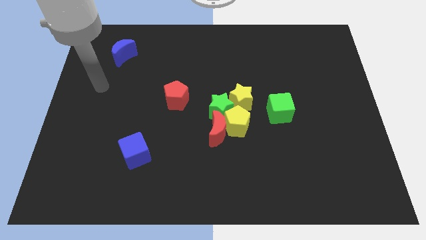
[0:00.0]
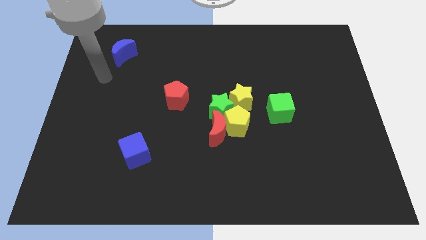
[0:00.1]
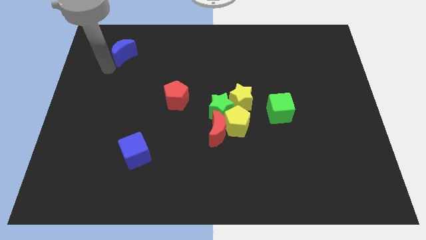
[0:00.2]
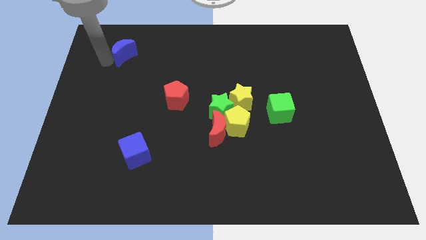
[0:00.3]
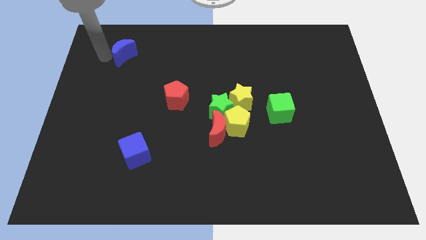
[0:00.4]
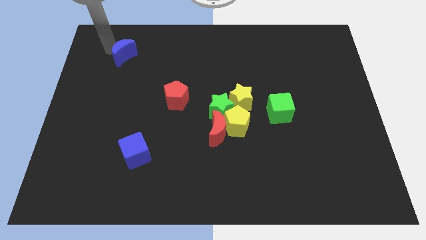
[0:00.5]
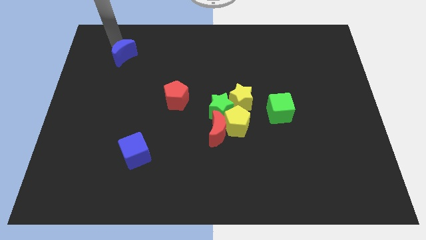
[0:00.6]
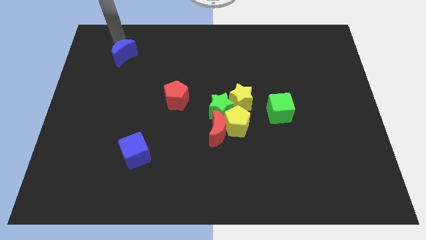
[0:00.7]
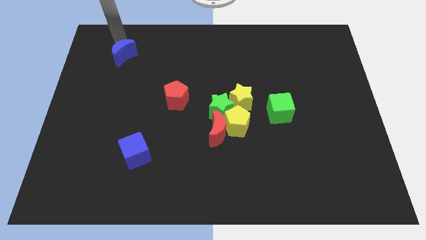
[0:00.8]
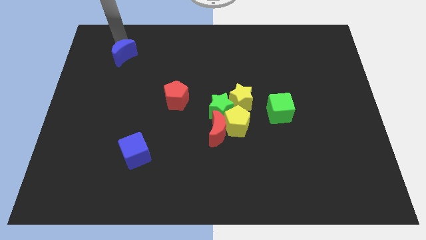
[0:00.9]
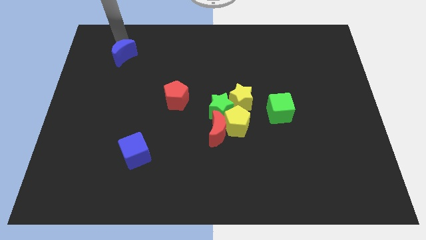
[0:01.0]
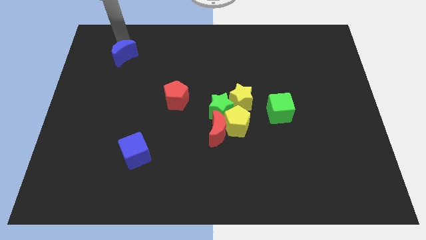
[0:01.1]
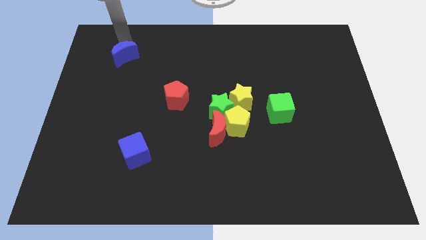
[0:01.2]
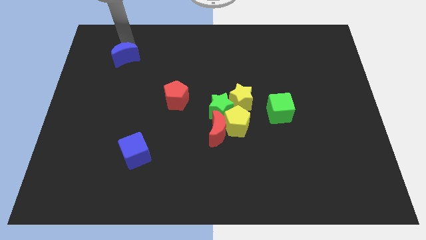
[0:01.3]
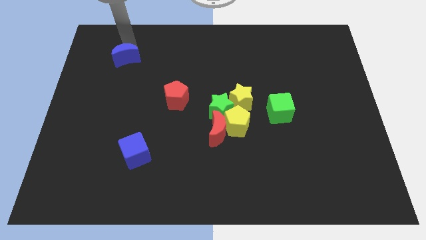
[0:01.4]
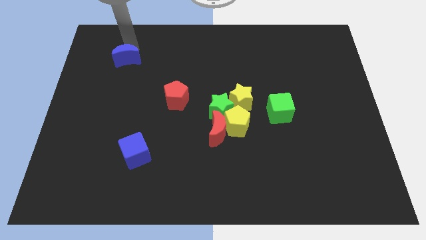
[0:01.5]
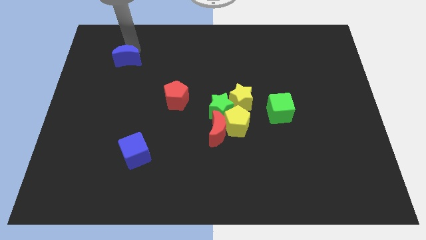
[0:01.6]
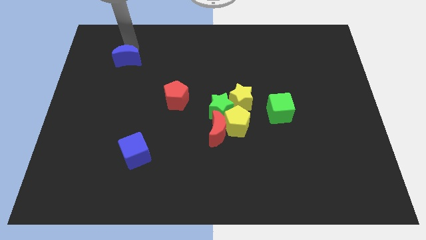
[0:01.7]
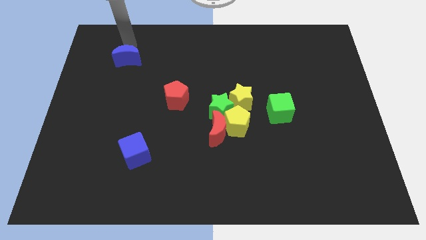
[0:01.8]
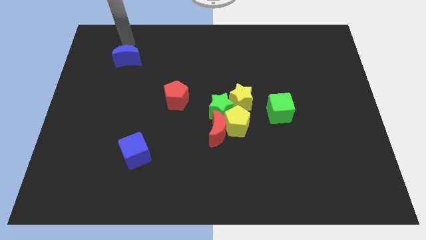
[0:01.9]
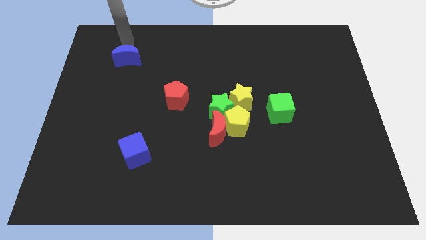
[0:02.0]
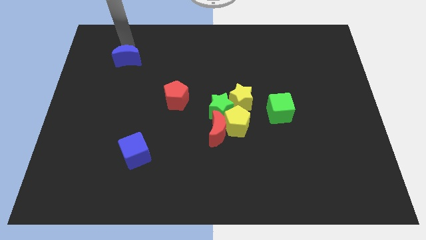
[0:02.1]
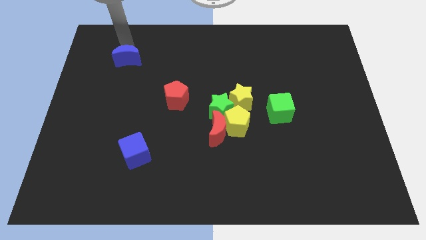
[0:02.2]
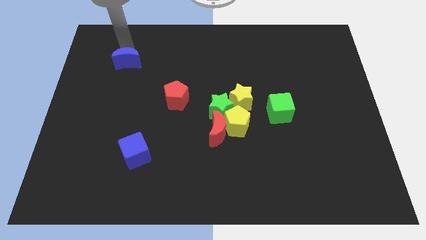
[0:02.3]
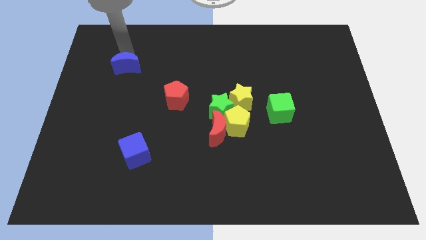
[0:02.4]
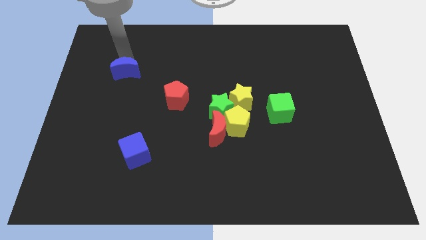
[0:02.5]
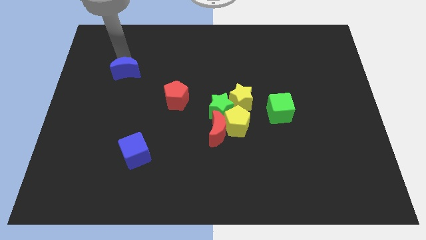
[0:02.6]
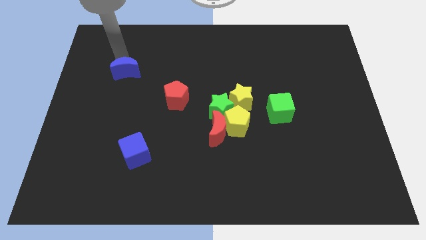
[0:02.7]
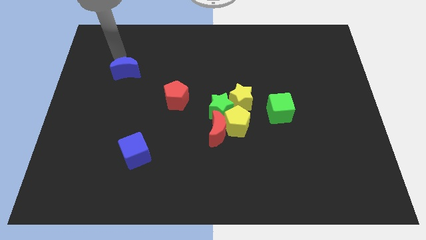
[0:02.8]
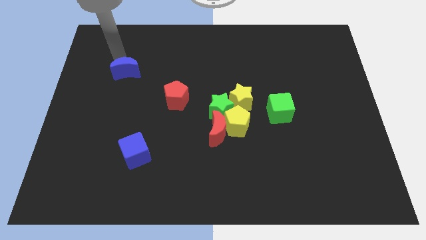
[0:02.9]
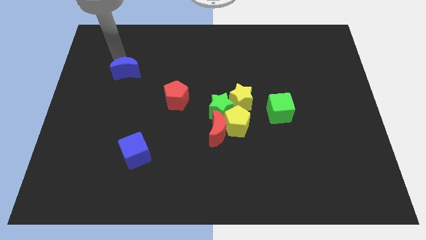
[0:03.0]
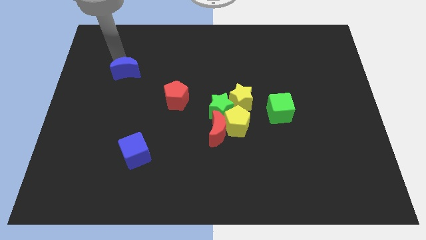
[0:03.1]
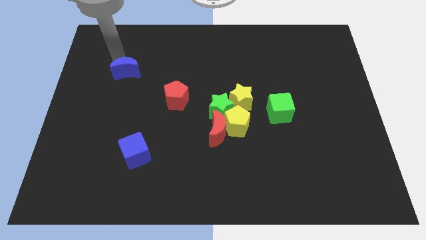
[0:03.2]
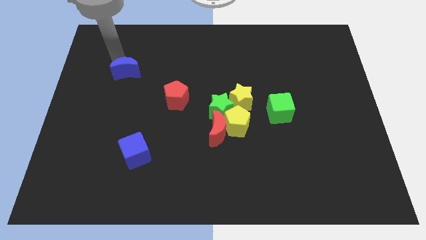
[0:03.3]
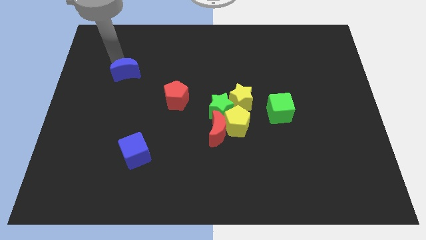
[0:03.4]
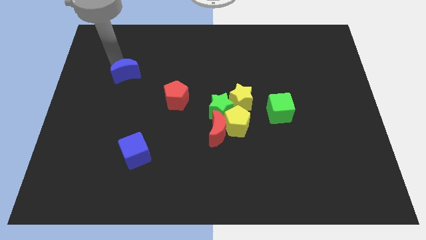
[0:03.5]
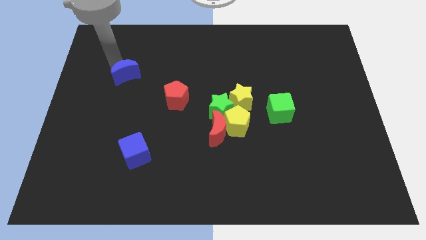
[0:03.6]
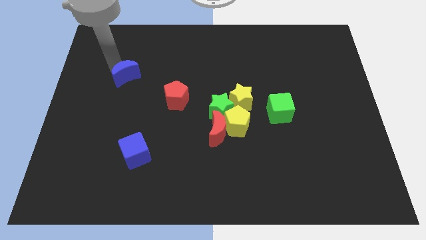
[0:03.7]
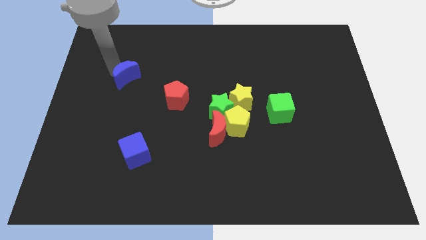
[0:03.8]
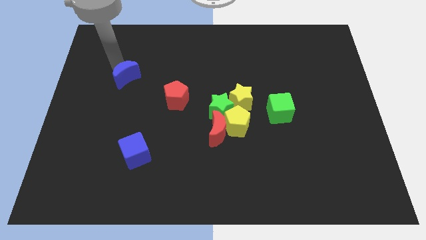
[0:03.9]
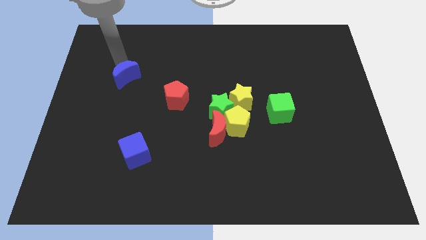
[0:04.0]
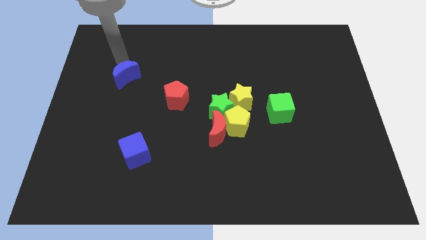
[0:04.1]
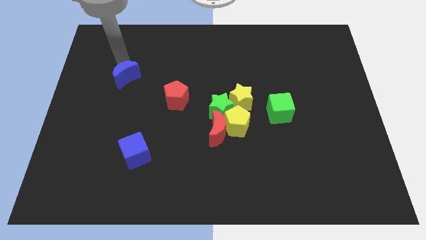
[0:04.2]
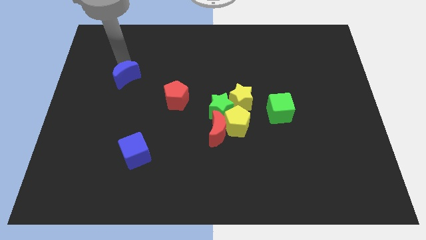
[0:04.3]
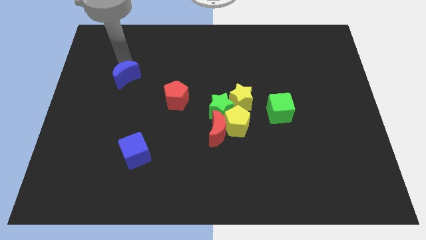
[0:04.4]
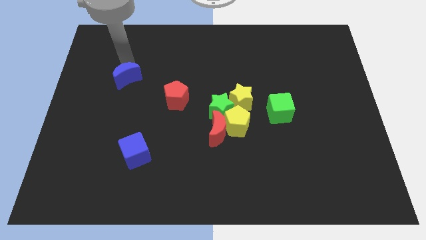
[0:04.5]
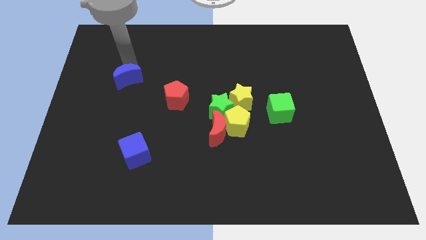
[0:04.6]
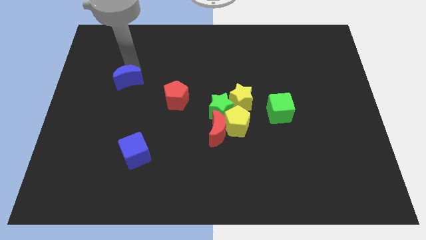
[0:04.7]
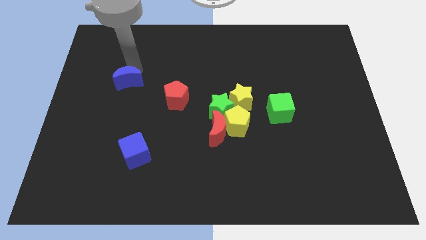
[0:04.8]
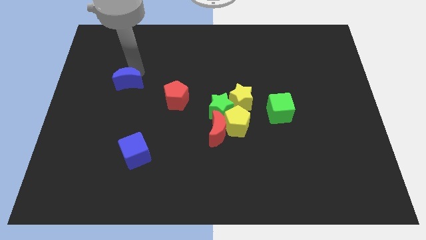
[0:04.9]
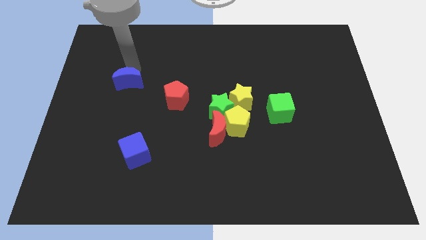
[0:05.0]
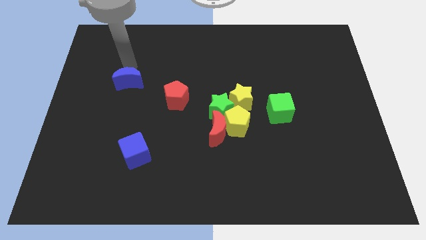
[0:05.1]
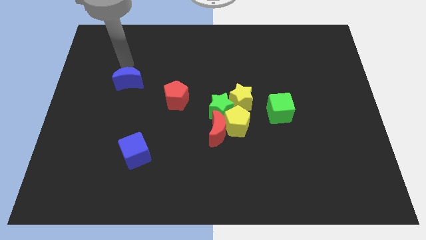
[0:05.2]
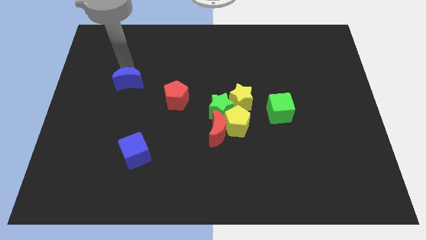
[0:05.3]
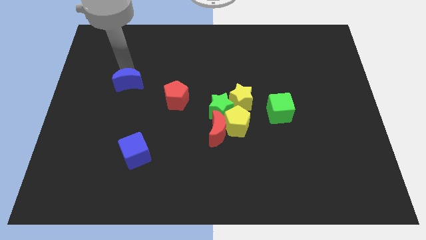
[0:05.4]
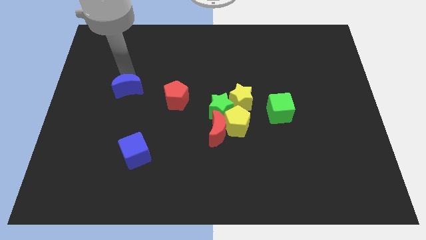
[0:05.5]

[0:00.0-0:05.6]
push the blue moon left of the red pentagon

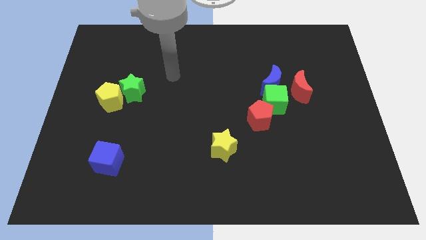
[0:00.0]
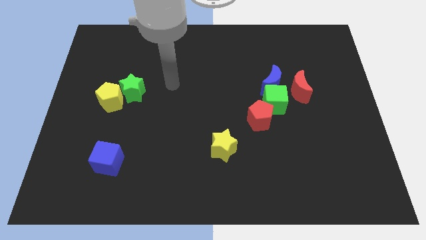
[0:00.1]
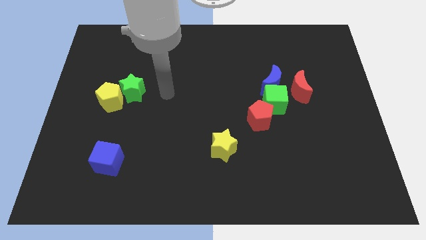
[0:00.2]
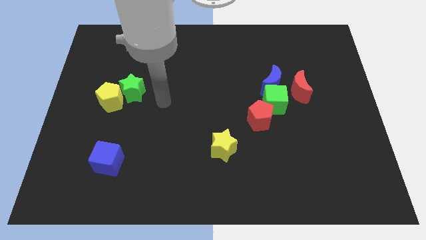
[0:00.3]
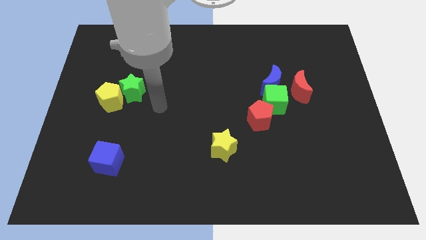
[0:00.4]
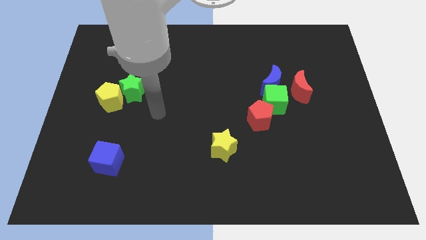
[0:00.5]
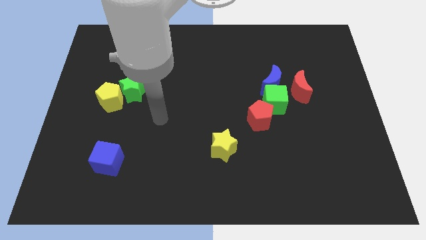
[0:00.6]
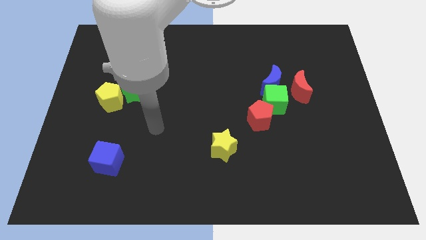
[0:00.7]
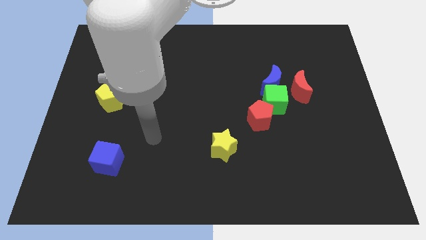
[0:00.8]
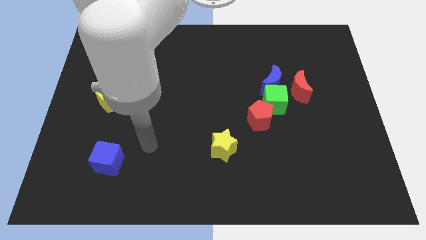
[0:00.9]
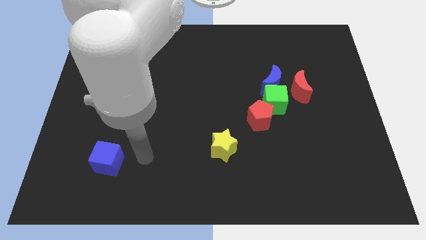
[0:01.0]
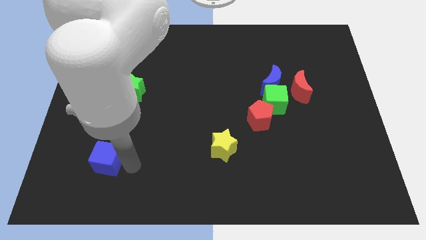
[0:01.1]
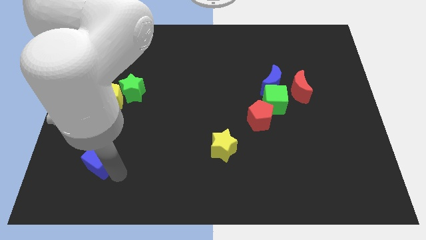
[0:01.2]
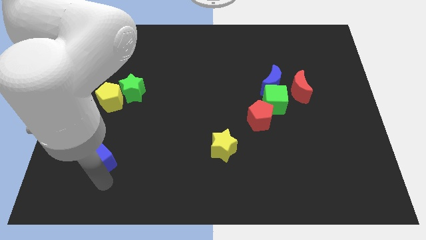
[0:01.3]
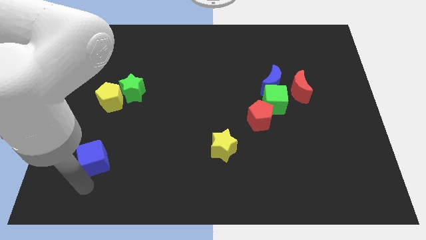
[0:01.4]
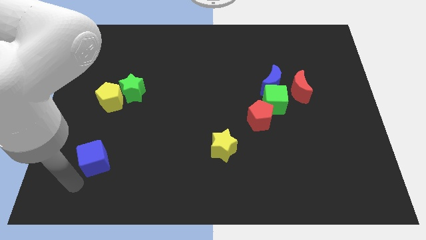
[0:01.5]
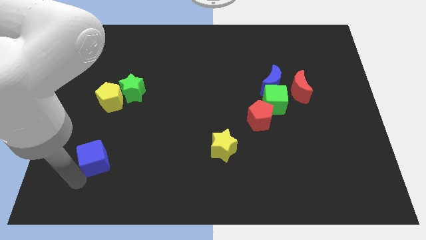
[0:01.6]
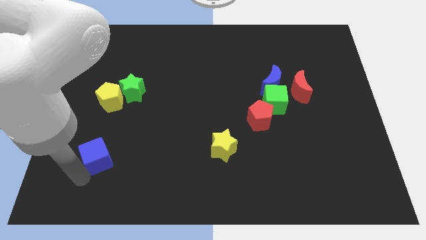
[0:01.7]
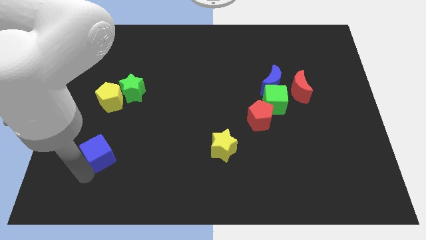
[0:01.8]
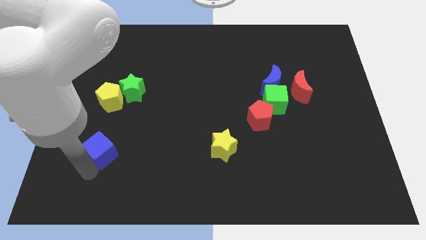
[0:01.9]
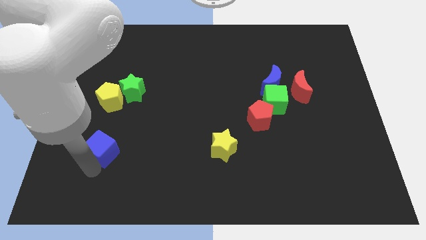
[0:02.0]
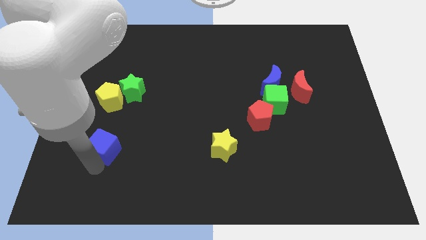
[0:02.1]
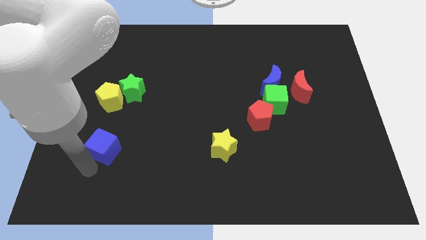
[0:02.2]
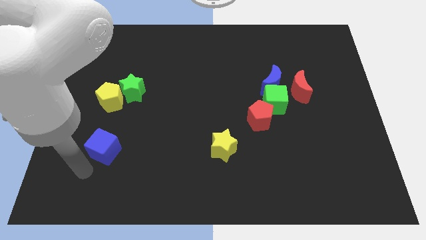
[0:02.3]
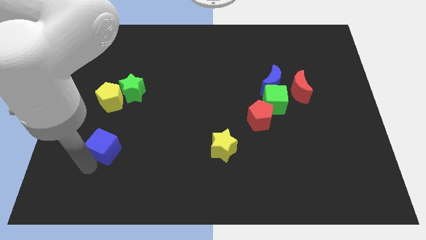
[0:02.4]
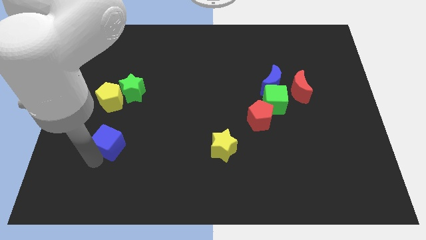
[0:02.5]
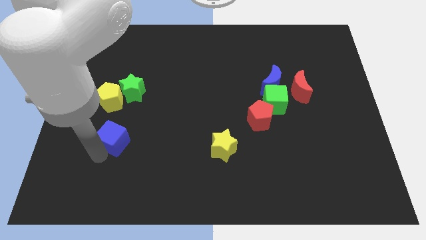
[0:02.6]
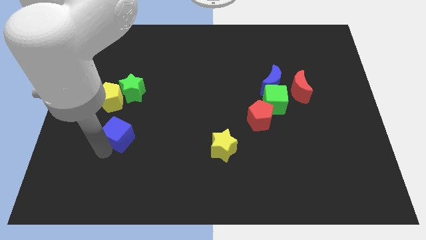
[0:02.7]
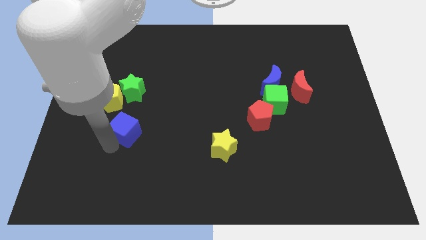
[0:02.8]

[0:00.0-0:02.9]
move the blue cube to the bottom right of the yellow pentagon
